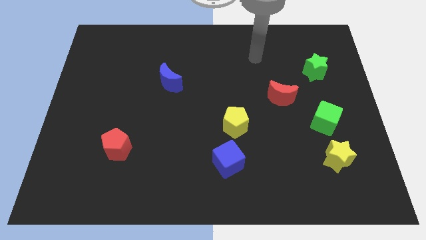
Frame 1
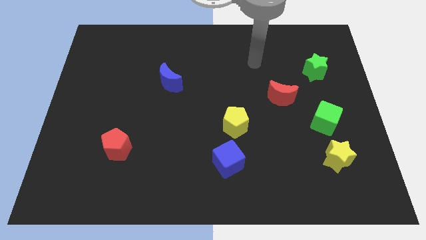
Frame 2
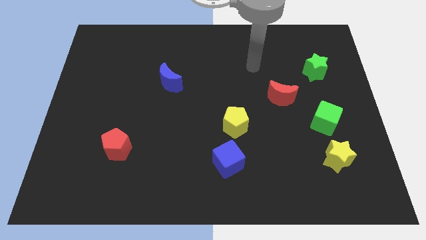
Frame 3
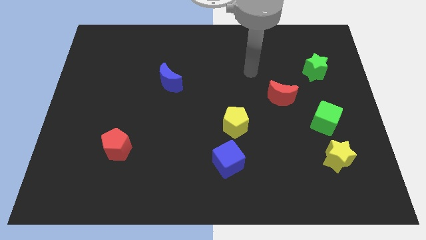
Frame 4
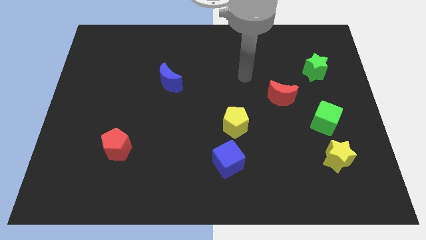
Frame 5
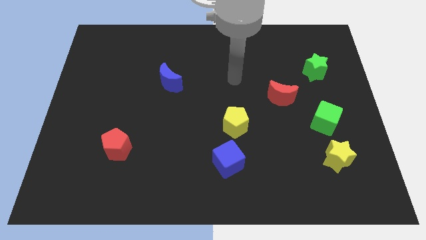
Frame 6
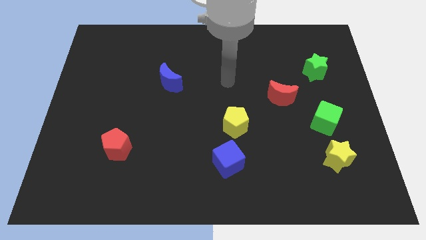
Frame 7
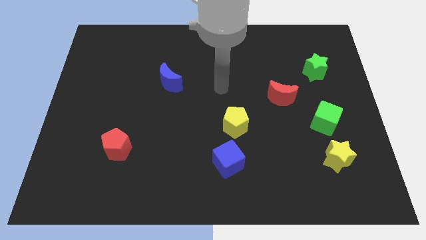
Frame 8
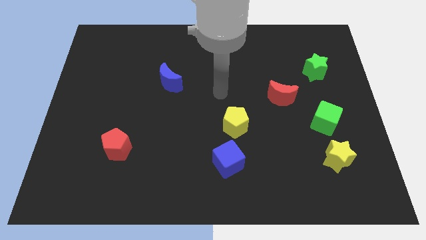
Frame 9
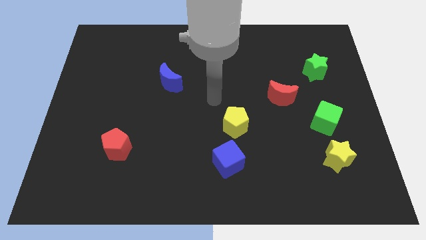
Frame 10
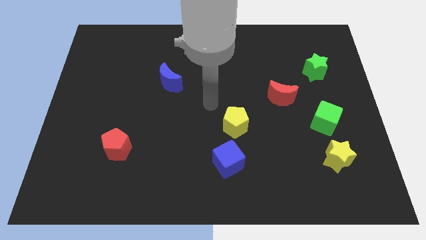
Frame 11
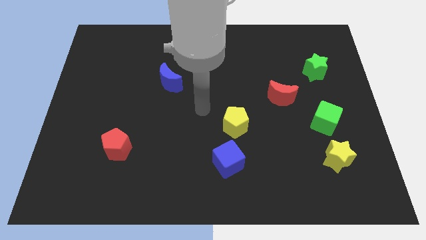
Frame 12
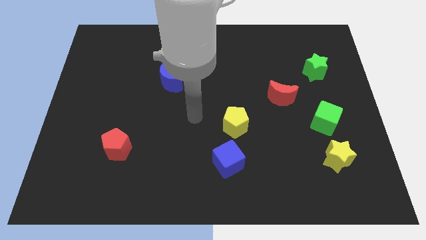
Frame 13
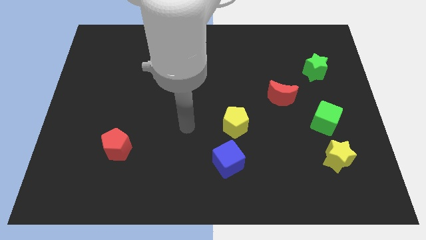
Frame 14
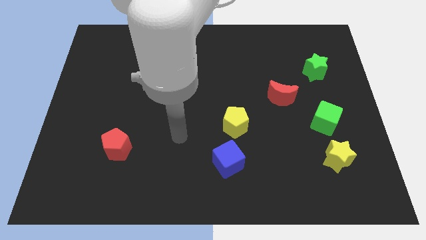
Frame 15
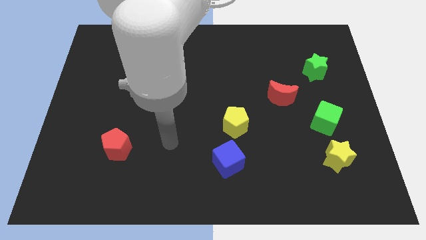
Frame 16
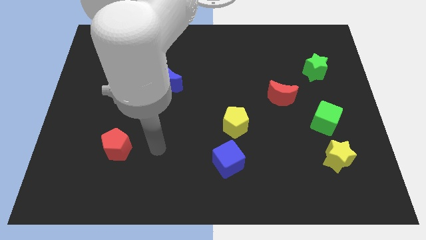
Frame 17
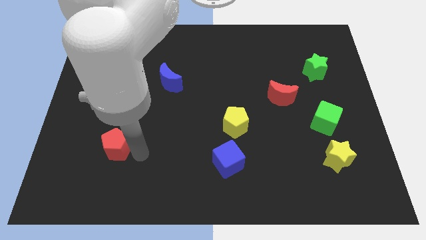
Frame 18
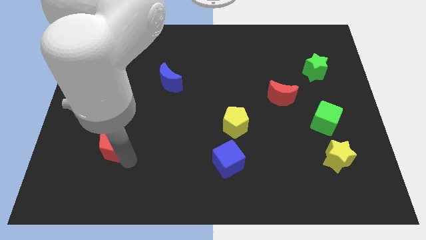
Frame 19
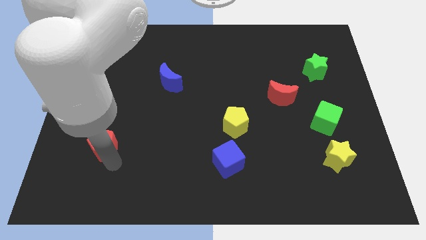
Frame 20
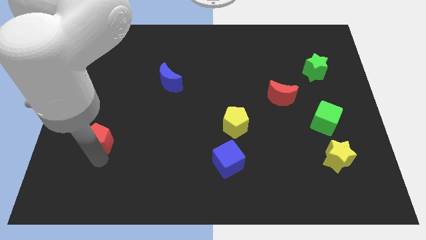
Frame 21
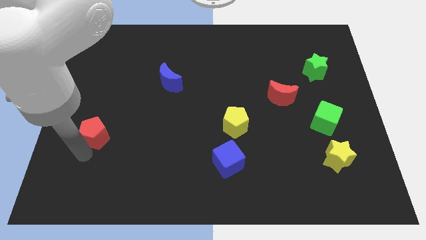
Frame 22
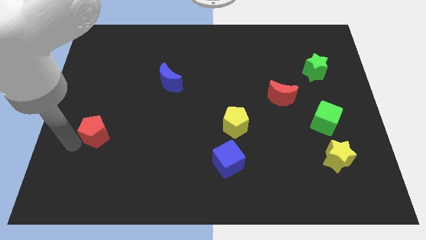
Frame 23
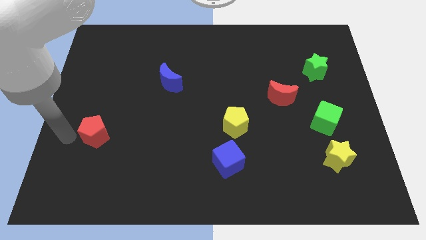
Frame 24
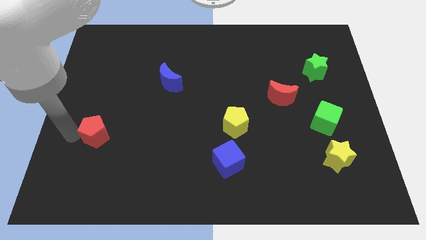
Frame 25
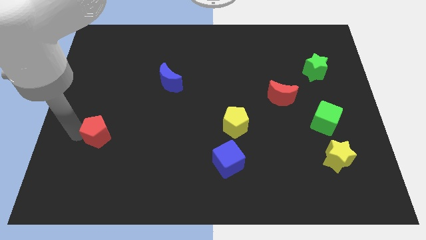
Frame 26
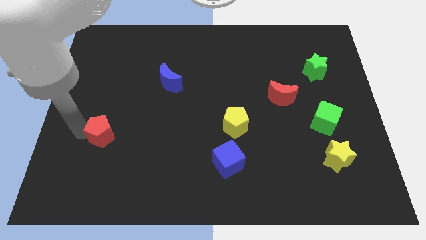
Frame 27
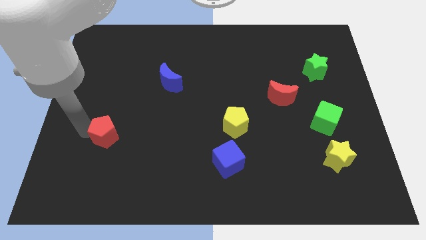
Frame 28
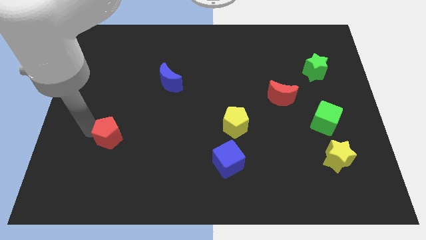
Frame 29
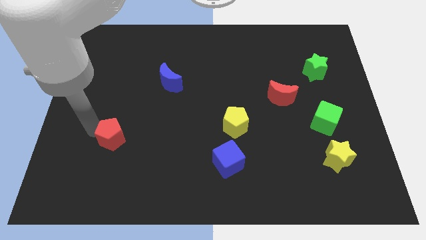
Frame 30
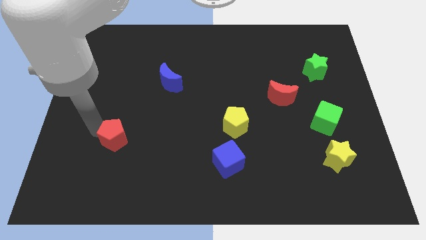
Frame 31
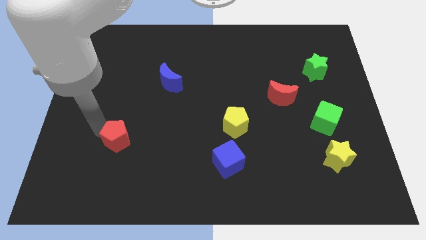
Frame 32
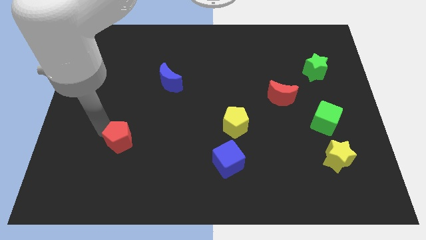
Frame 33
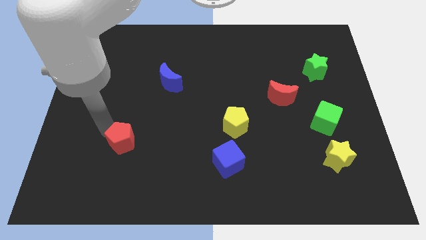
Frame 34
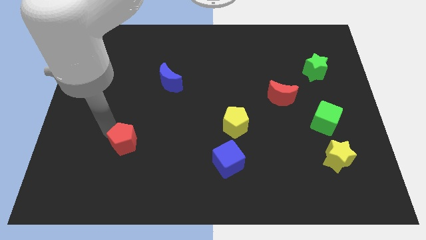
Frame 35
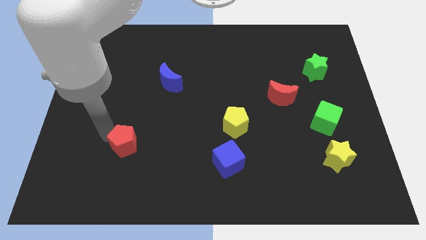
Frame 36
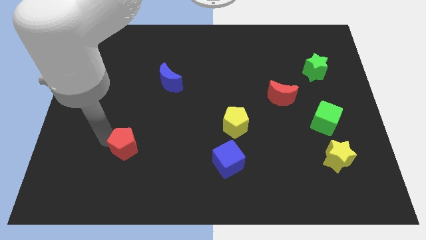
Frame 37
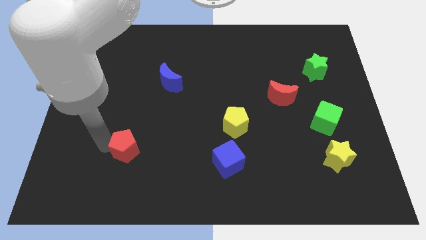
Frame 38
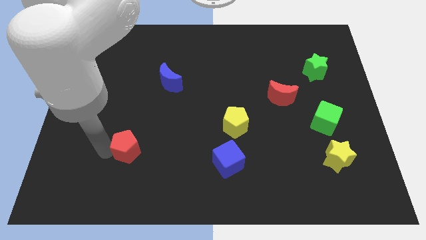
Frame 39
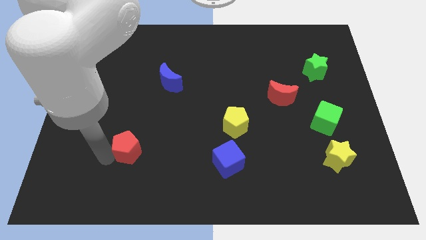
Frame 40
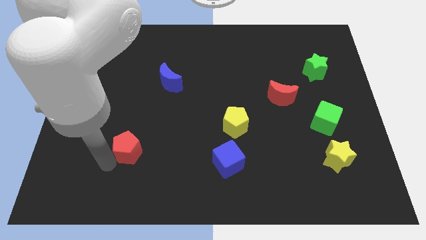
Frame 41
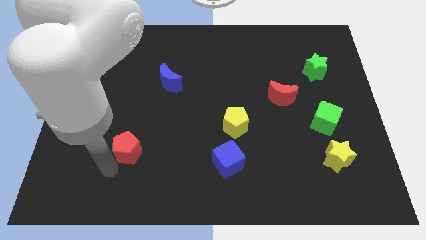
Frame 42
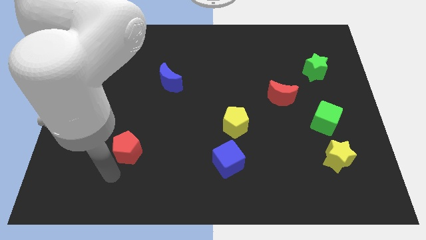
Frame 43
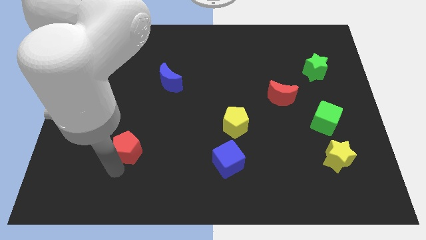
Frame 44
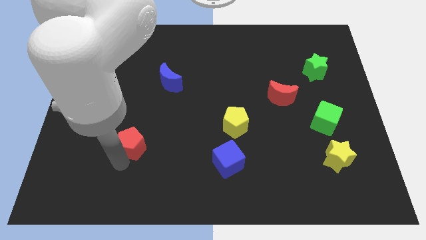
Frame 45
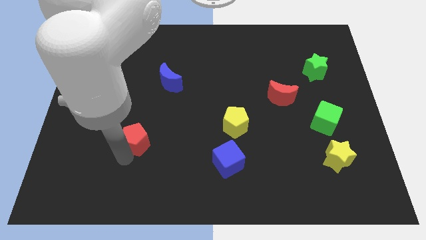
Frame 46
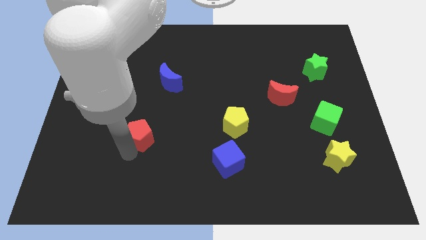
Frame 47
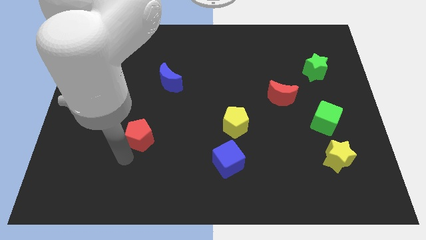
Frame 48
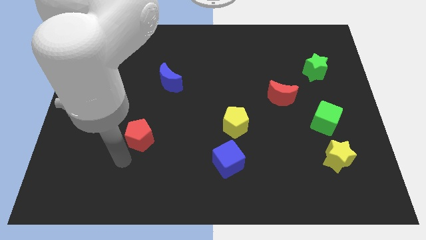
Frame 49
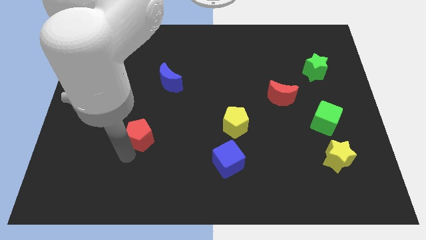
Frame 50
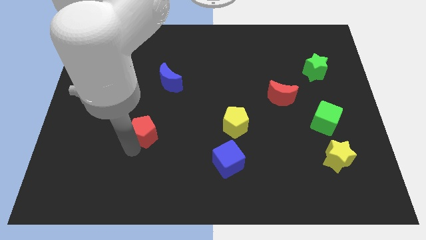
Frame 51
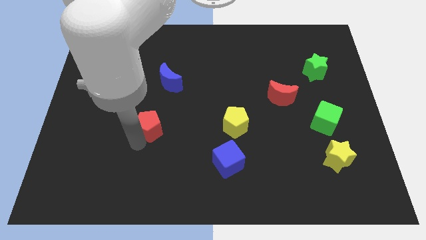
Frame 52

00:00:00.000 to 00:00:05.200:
slightly push the red pentagon up and right

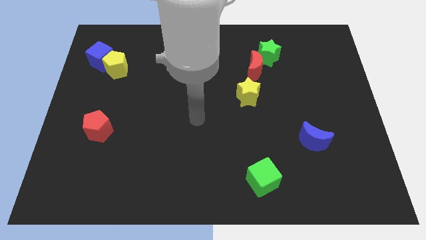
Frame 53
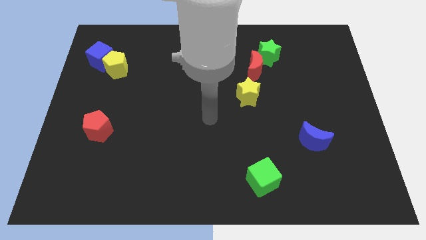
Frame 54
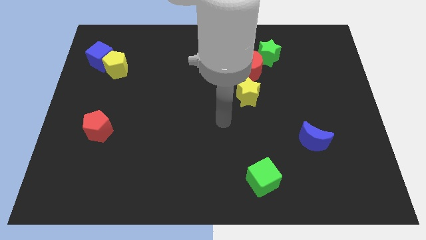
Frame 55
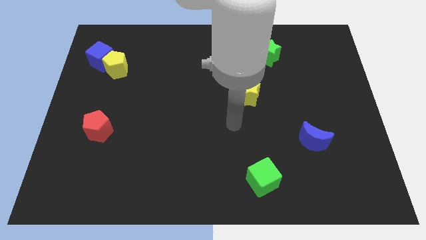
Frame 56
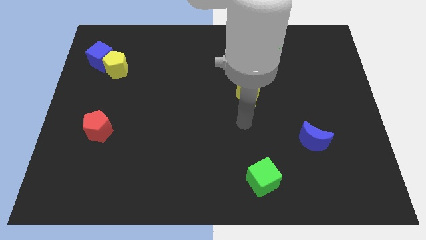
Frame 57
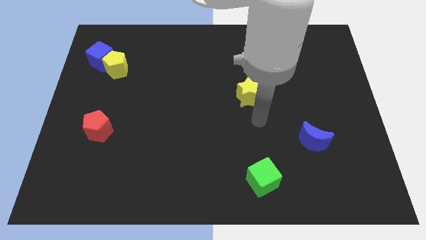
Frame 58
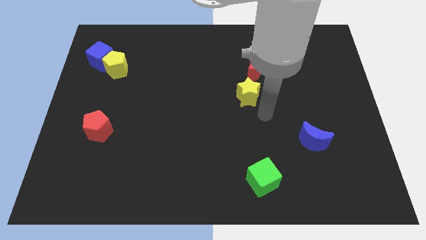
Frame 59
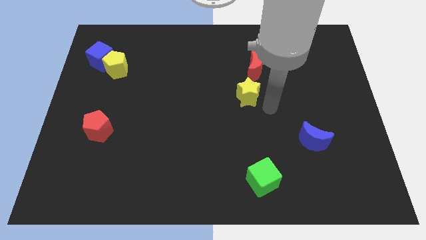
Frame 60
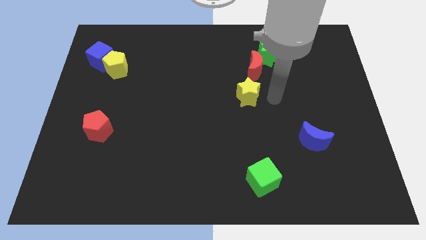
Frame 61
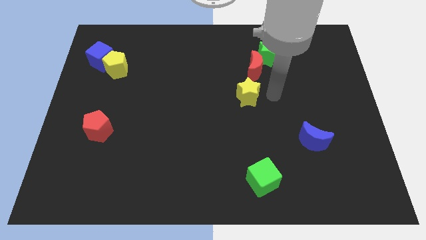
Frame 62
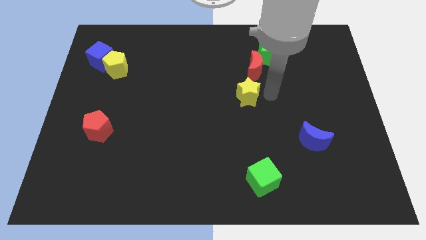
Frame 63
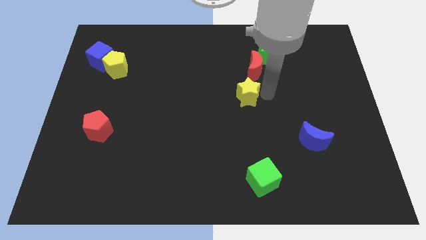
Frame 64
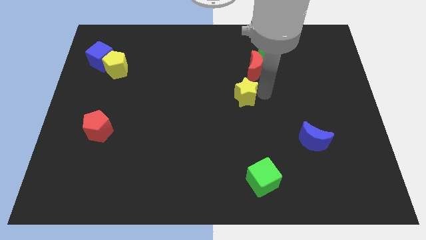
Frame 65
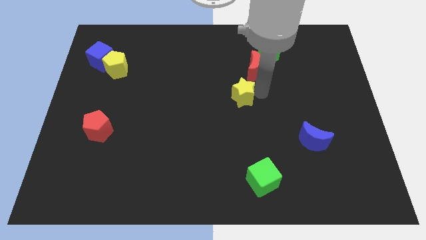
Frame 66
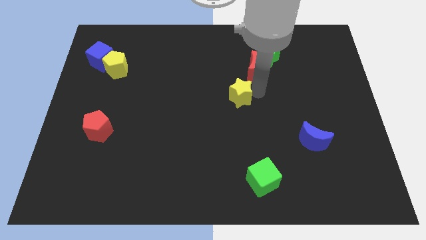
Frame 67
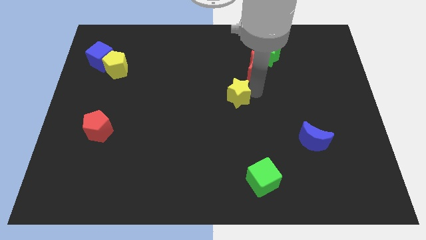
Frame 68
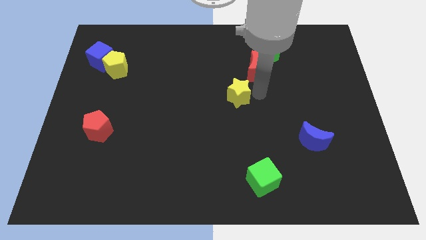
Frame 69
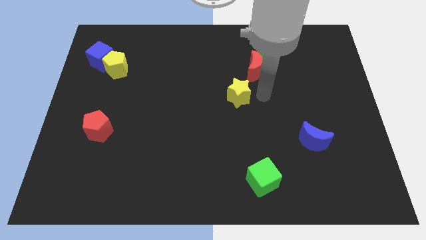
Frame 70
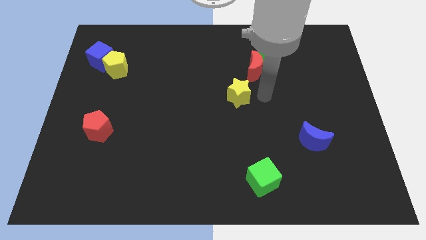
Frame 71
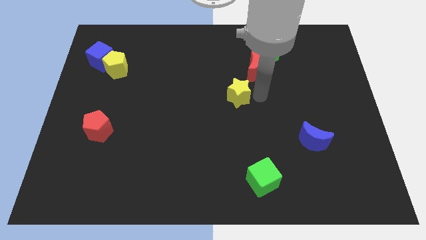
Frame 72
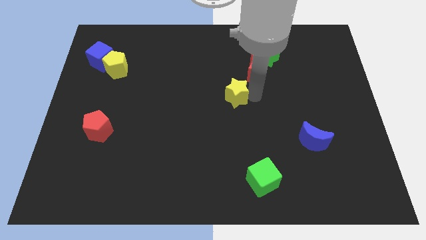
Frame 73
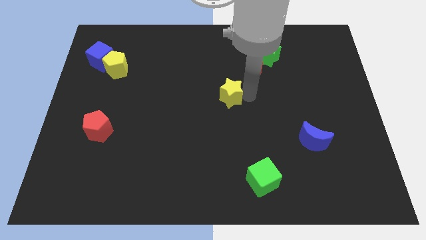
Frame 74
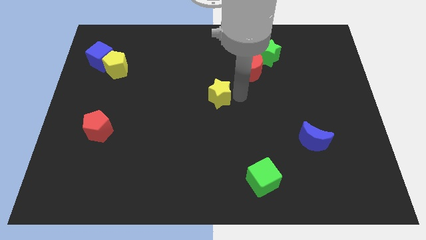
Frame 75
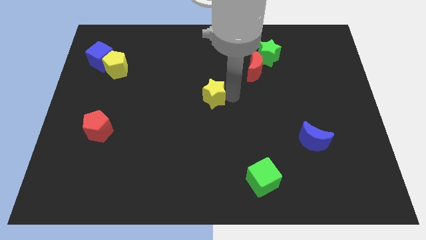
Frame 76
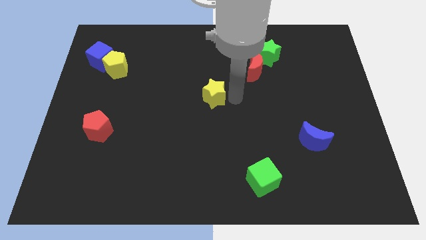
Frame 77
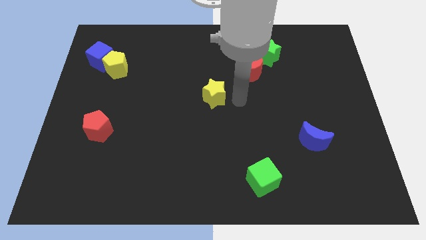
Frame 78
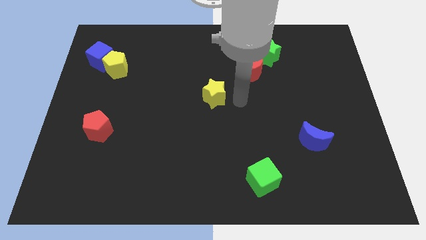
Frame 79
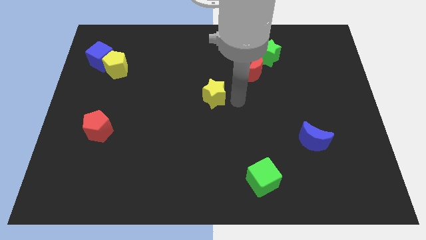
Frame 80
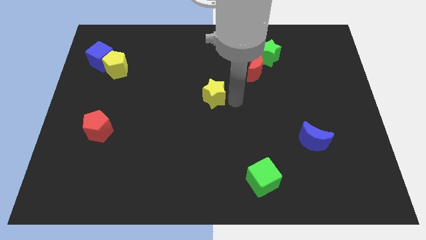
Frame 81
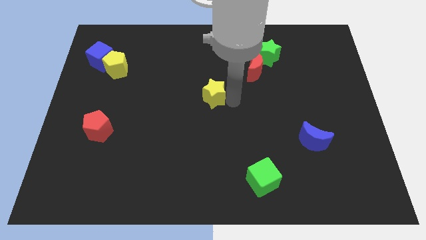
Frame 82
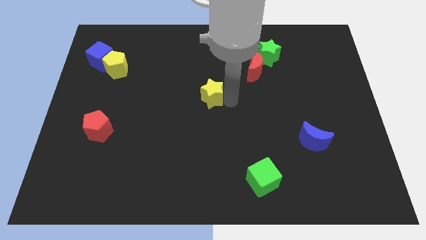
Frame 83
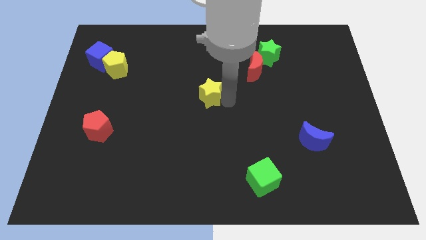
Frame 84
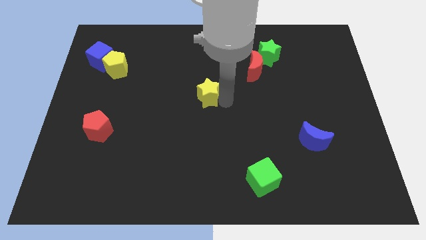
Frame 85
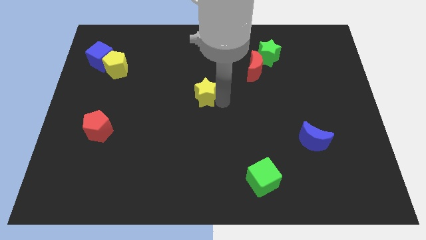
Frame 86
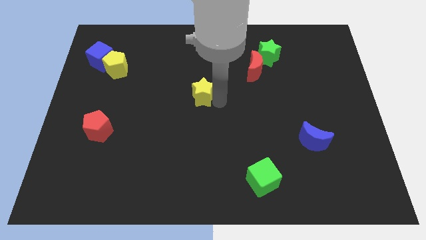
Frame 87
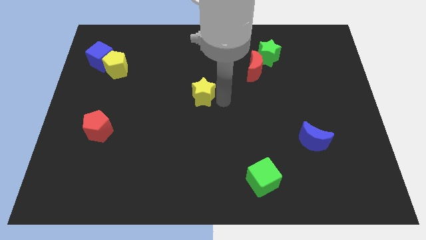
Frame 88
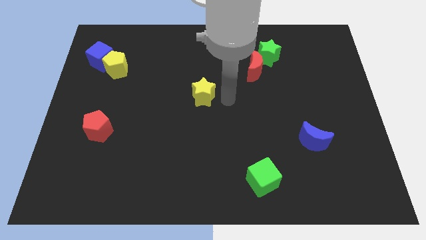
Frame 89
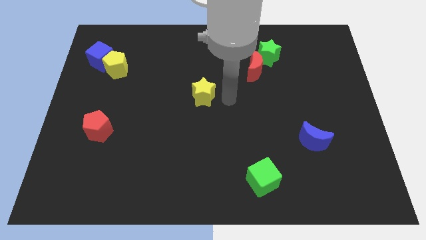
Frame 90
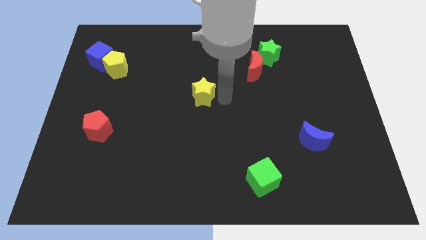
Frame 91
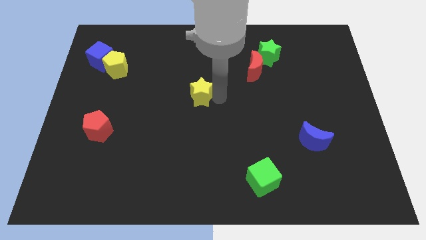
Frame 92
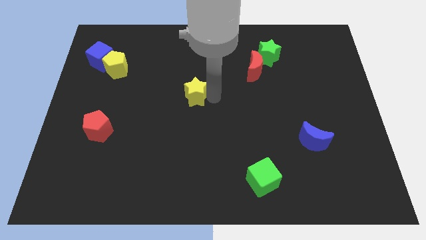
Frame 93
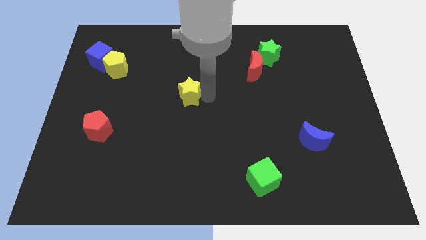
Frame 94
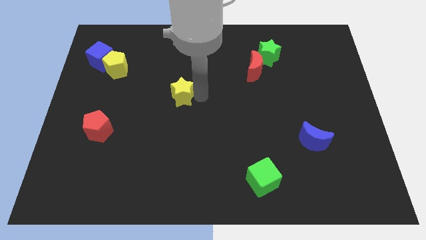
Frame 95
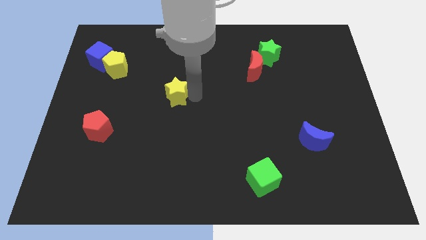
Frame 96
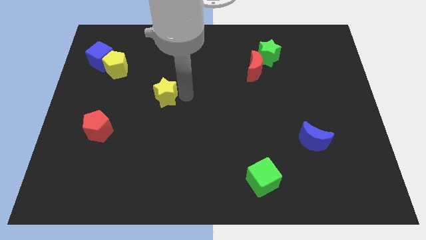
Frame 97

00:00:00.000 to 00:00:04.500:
move the yellow star to the left
